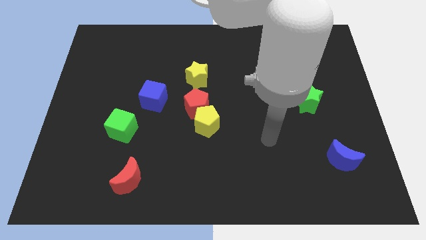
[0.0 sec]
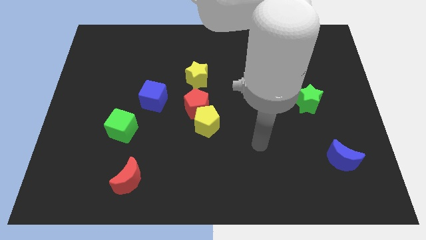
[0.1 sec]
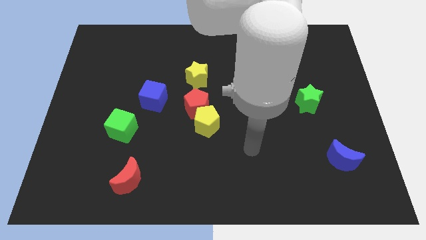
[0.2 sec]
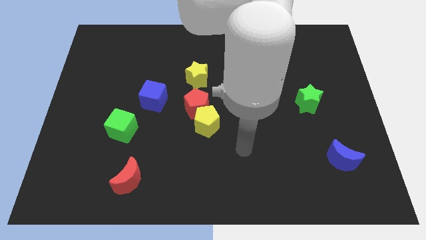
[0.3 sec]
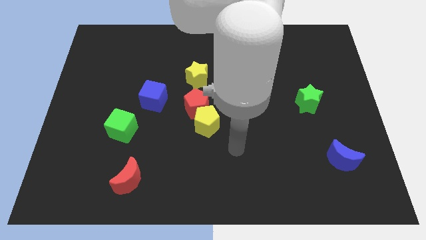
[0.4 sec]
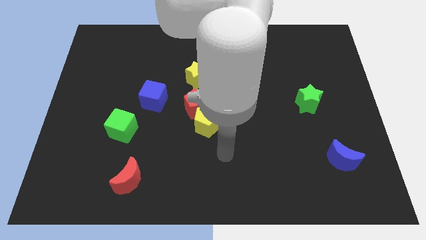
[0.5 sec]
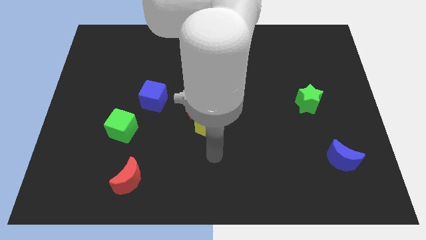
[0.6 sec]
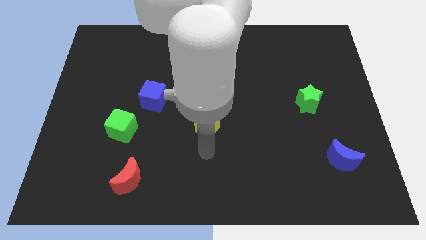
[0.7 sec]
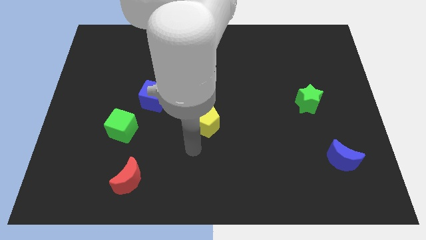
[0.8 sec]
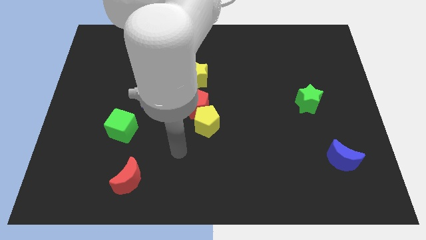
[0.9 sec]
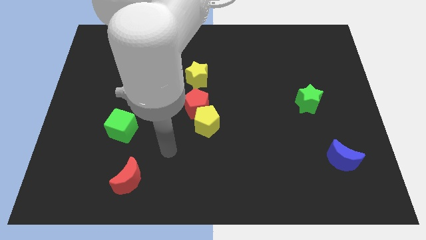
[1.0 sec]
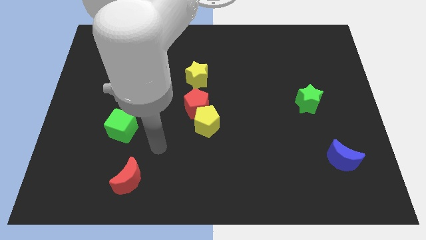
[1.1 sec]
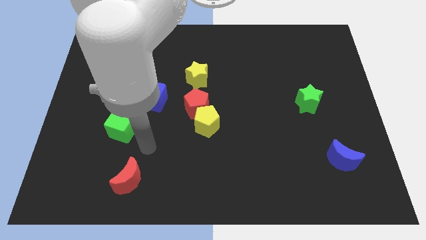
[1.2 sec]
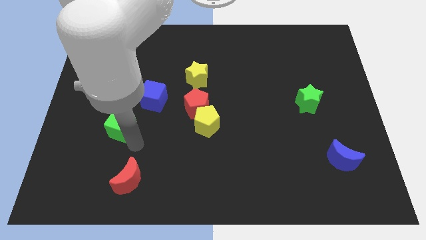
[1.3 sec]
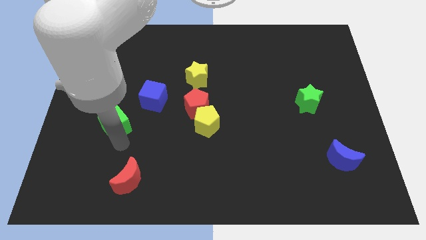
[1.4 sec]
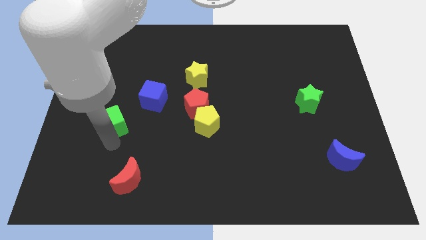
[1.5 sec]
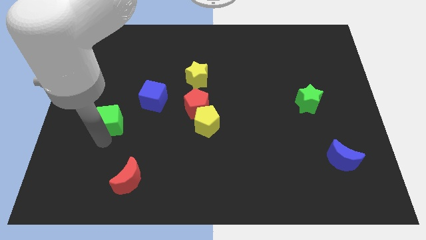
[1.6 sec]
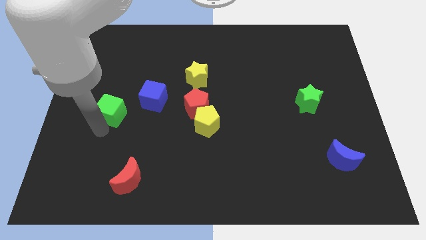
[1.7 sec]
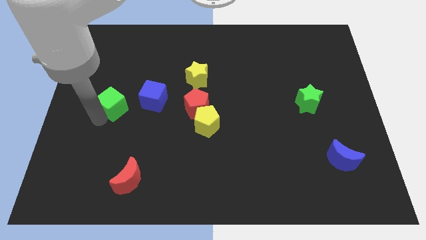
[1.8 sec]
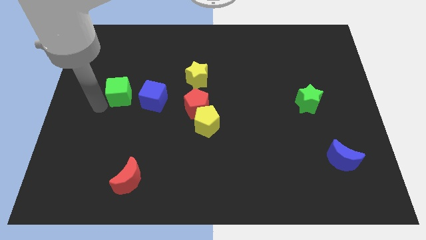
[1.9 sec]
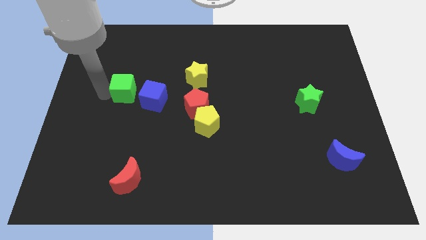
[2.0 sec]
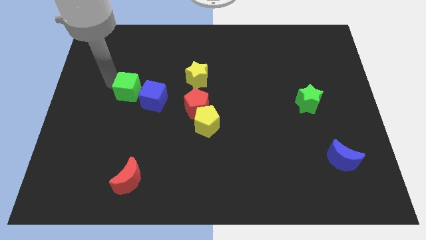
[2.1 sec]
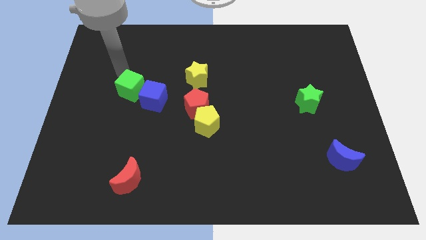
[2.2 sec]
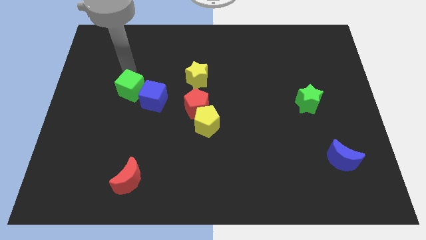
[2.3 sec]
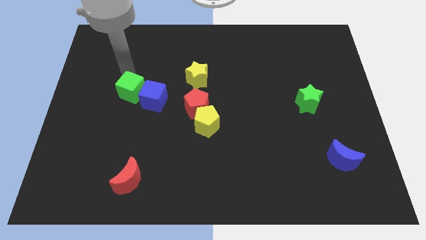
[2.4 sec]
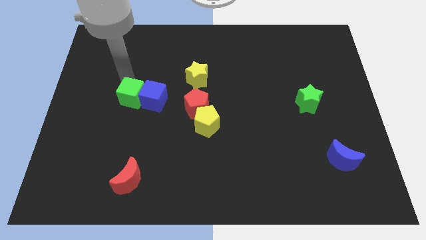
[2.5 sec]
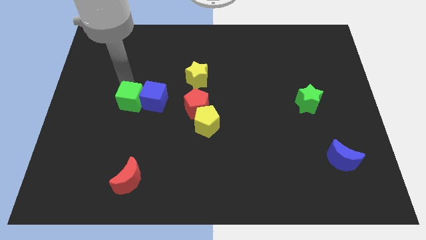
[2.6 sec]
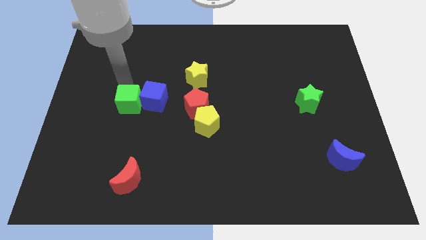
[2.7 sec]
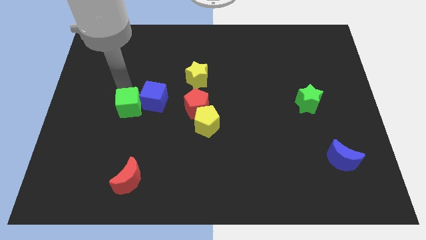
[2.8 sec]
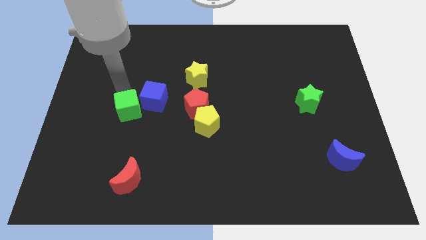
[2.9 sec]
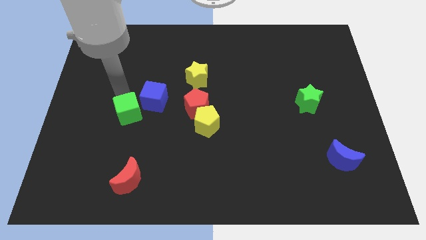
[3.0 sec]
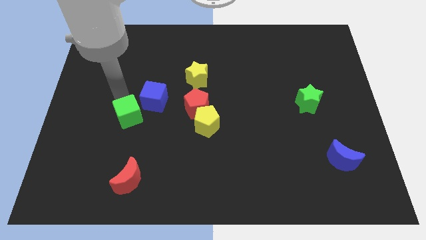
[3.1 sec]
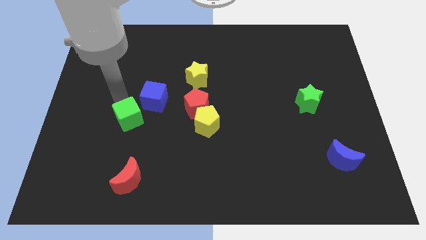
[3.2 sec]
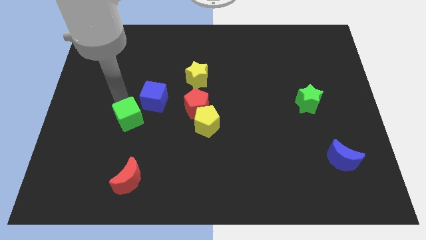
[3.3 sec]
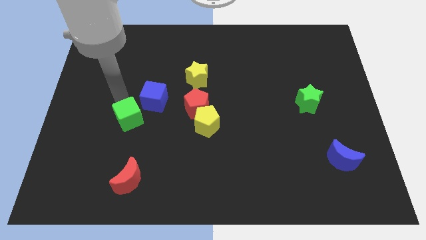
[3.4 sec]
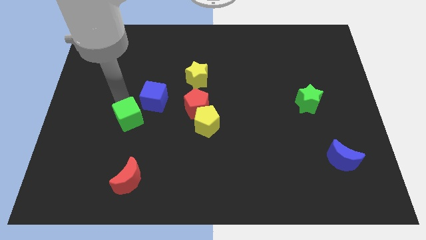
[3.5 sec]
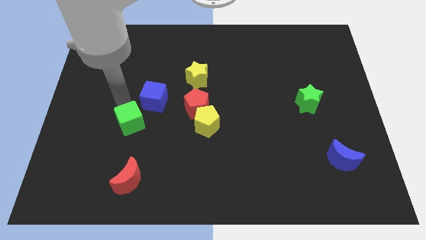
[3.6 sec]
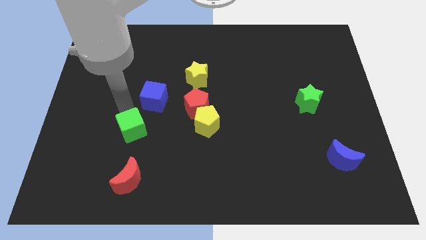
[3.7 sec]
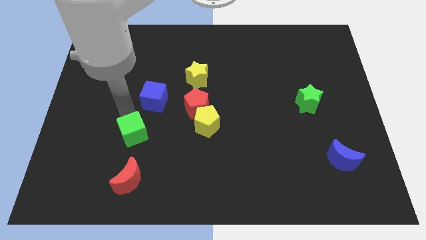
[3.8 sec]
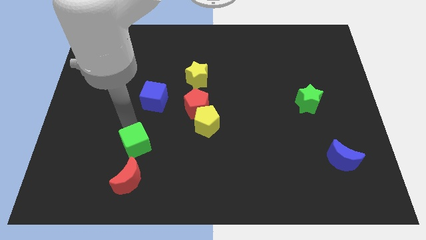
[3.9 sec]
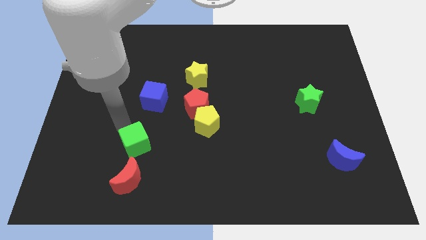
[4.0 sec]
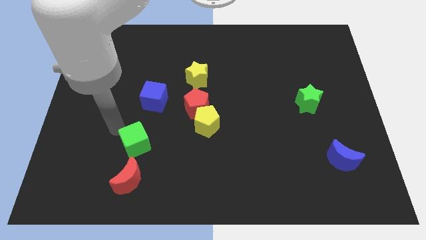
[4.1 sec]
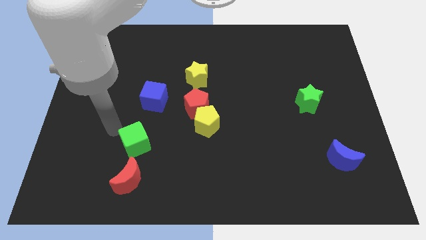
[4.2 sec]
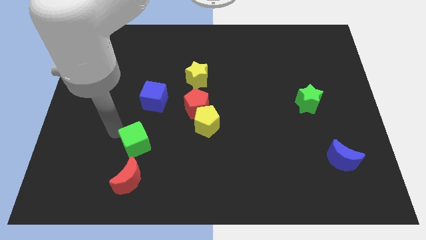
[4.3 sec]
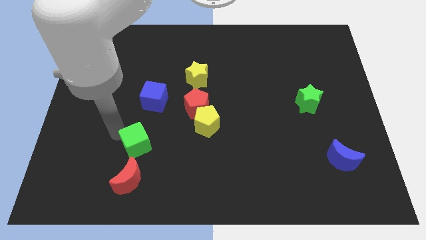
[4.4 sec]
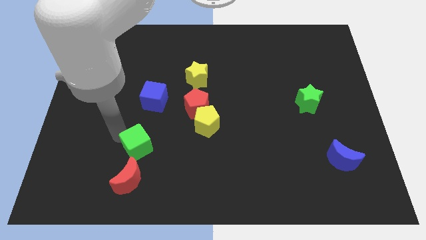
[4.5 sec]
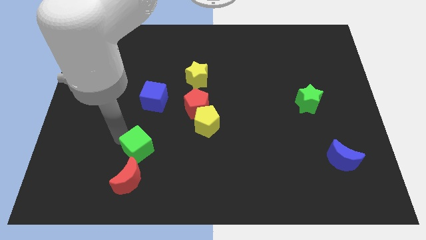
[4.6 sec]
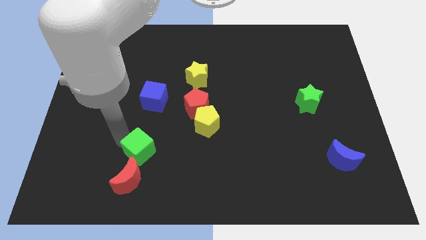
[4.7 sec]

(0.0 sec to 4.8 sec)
slightly move the green cube down and right
